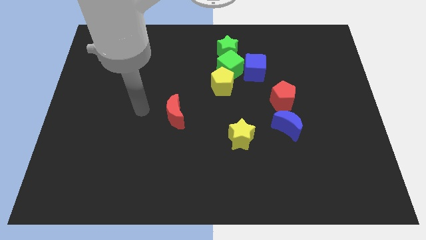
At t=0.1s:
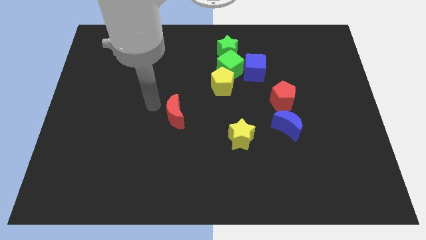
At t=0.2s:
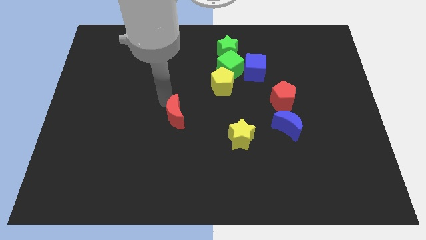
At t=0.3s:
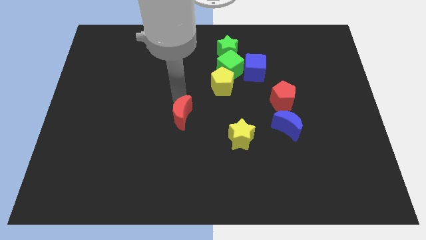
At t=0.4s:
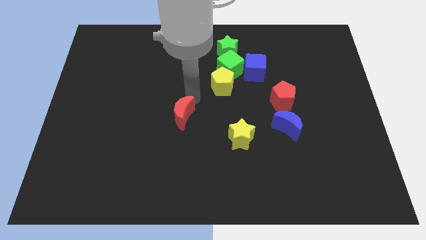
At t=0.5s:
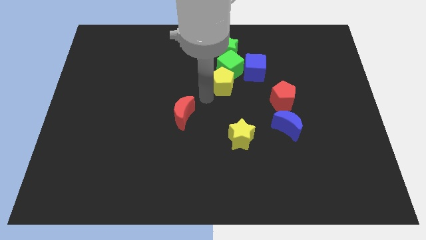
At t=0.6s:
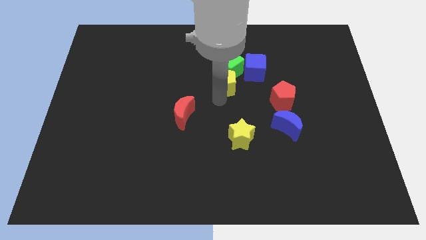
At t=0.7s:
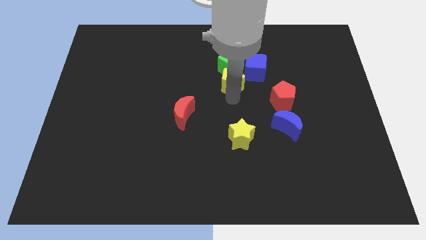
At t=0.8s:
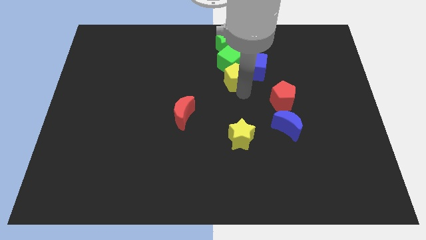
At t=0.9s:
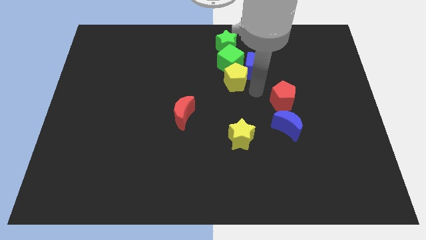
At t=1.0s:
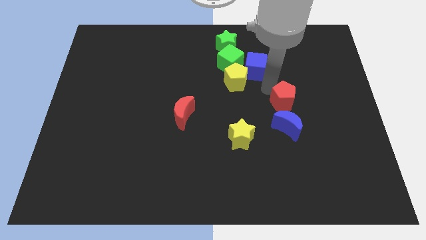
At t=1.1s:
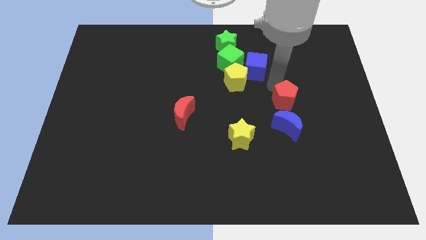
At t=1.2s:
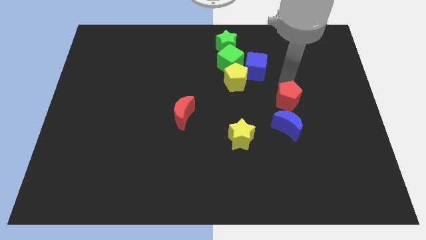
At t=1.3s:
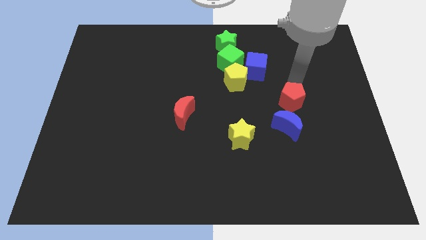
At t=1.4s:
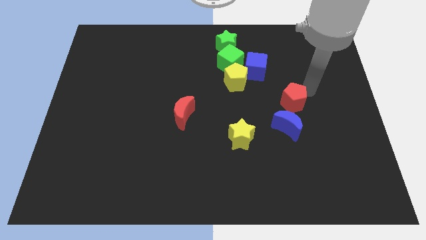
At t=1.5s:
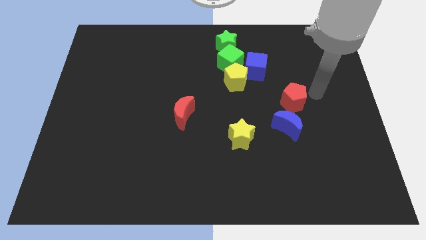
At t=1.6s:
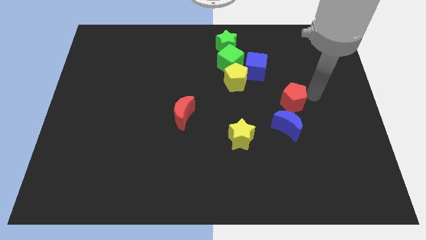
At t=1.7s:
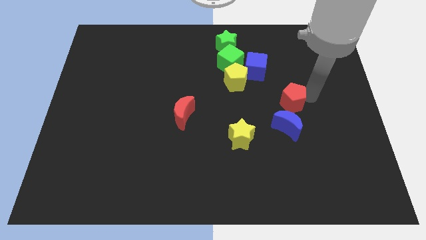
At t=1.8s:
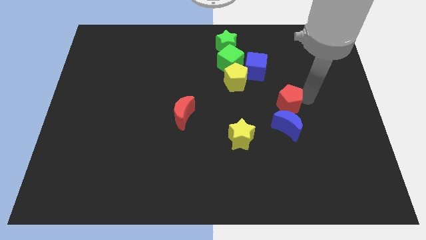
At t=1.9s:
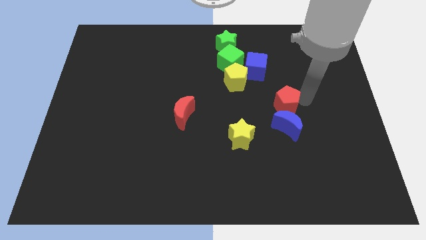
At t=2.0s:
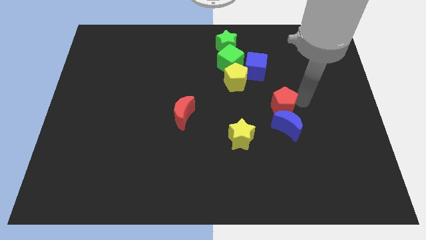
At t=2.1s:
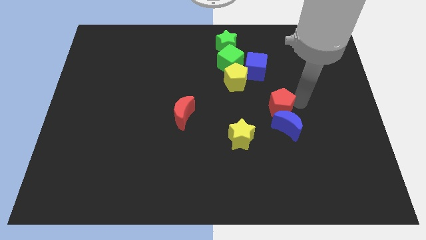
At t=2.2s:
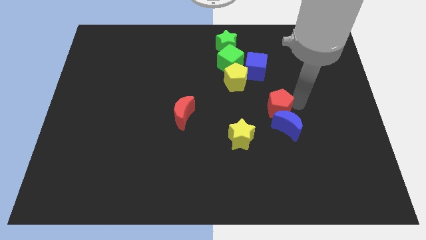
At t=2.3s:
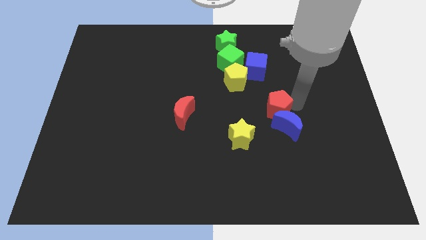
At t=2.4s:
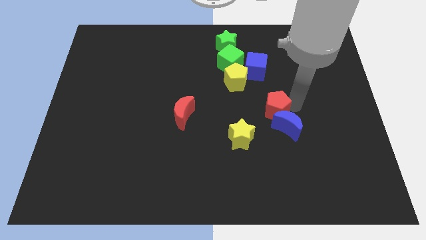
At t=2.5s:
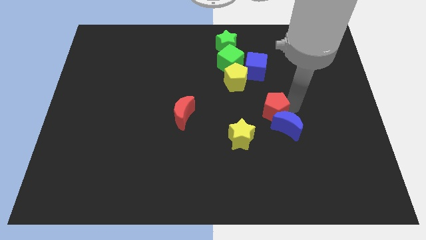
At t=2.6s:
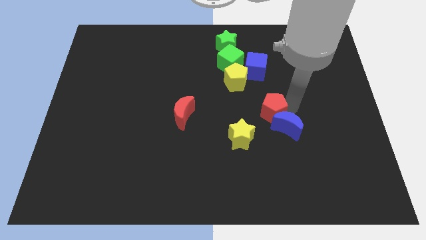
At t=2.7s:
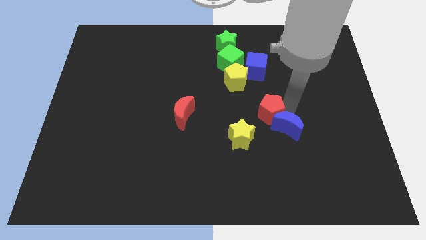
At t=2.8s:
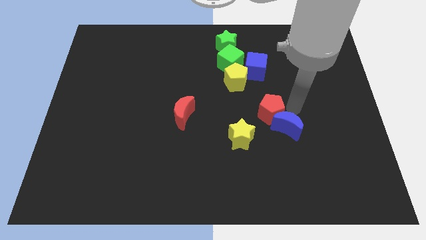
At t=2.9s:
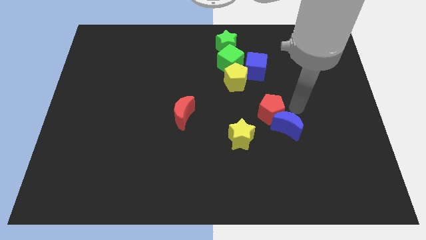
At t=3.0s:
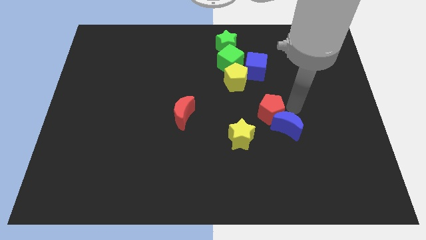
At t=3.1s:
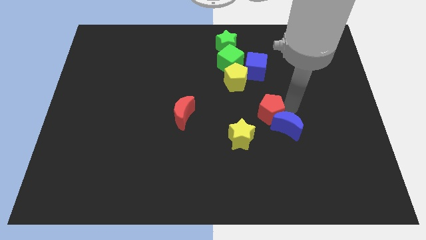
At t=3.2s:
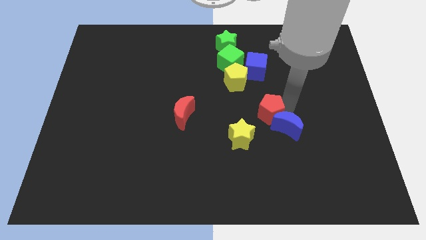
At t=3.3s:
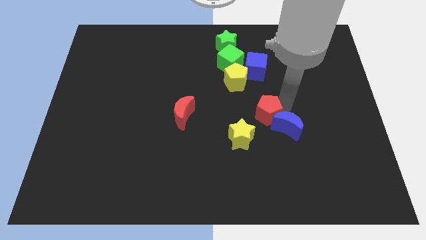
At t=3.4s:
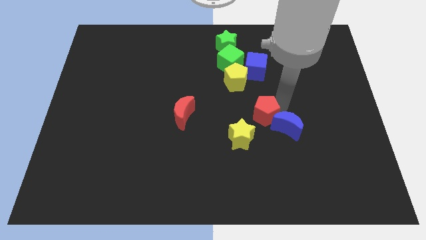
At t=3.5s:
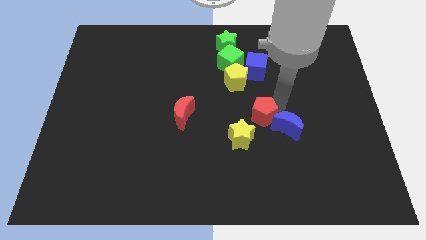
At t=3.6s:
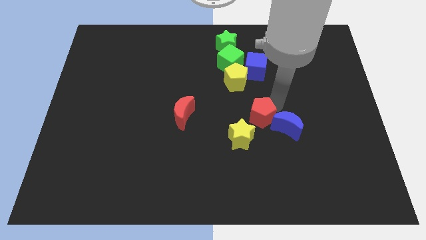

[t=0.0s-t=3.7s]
slightly push the red pentagon downwards and then left

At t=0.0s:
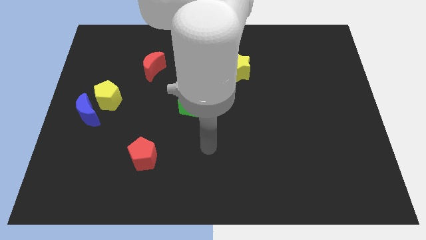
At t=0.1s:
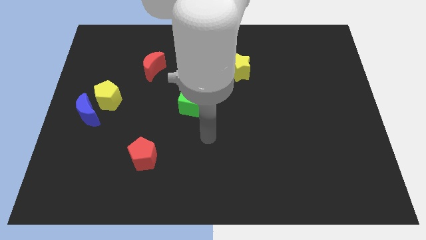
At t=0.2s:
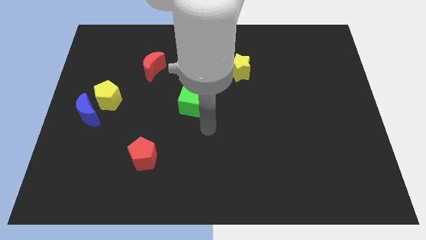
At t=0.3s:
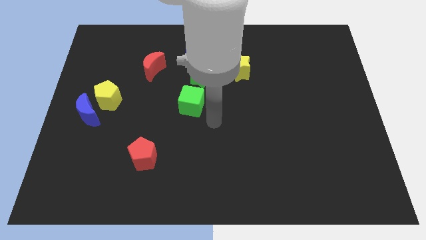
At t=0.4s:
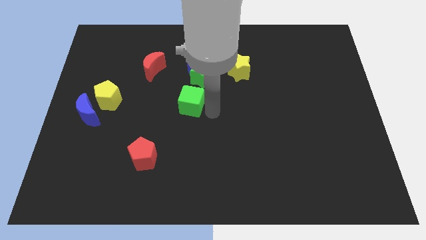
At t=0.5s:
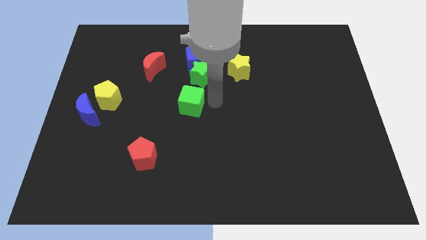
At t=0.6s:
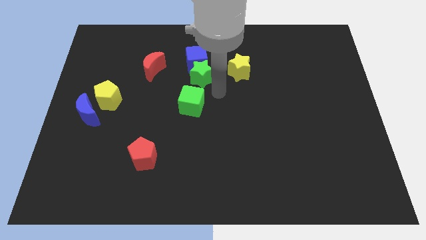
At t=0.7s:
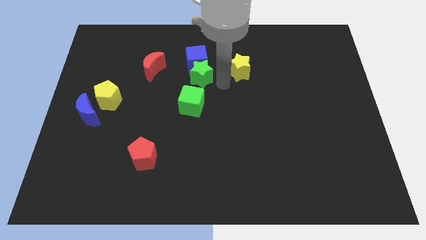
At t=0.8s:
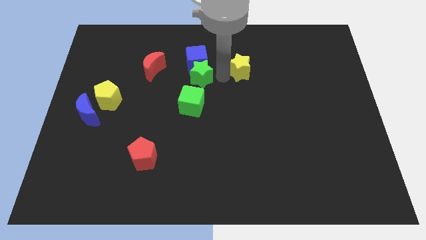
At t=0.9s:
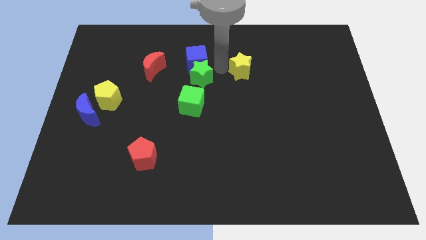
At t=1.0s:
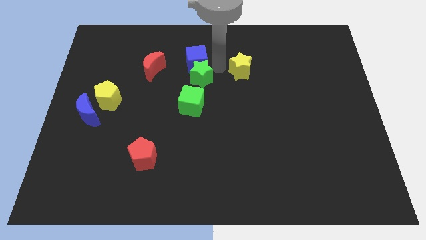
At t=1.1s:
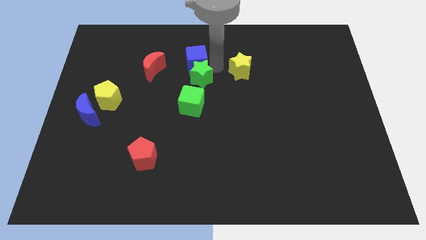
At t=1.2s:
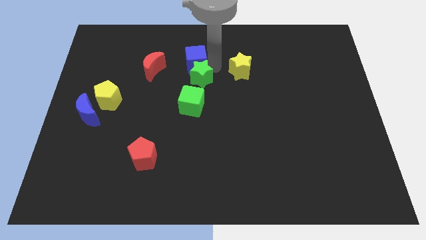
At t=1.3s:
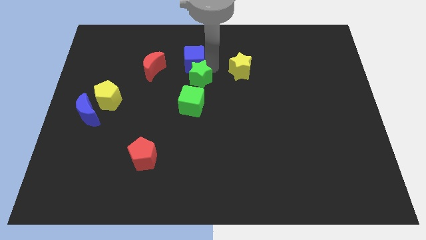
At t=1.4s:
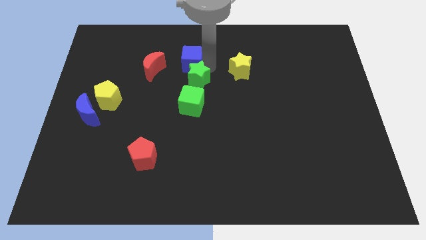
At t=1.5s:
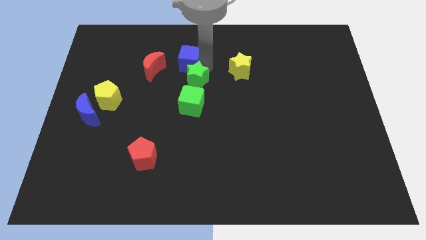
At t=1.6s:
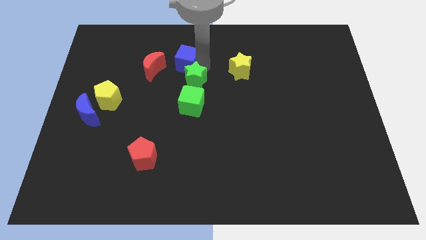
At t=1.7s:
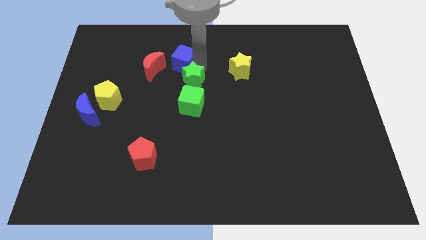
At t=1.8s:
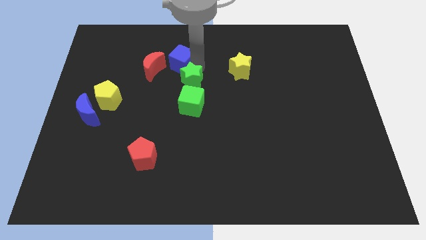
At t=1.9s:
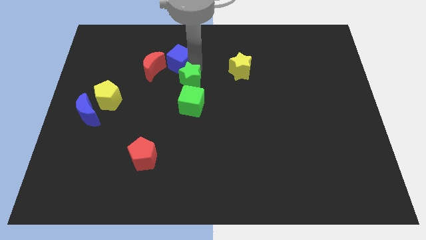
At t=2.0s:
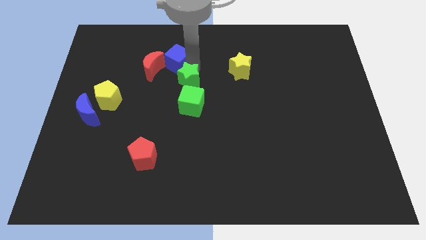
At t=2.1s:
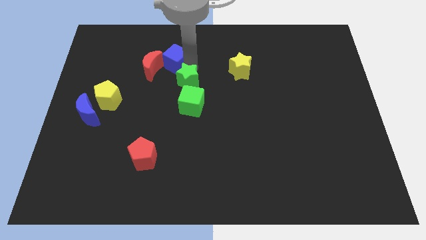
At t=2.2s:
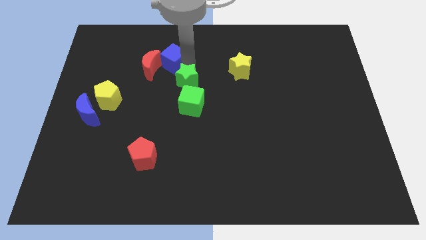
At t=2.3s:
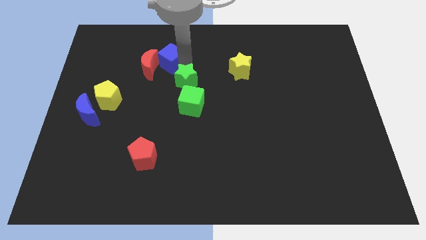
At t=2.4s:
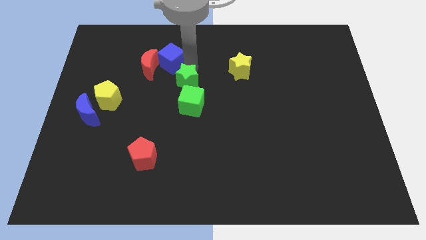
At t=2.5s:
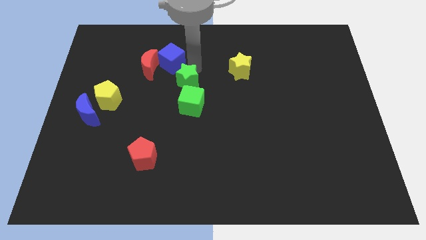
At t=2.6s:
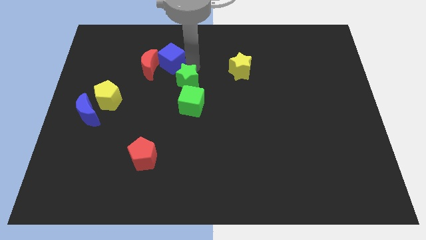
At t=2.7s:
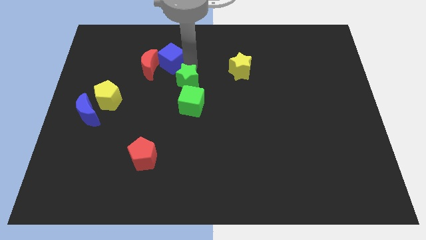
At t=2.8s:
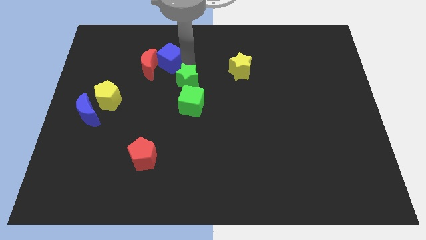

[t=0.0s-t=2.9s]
move the blue cube left a little bit

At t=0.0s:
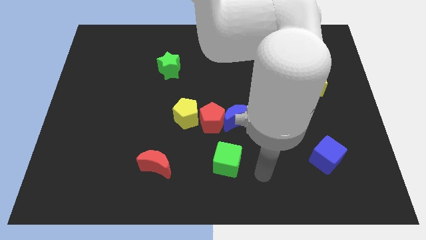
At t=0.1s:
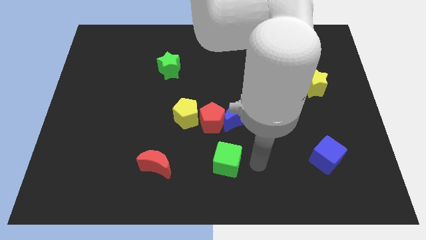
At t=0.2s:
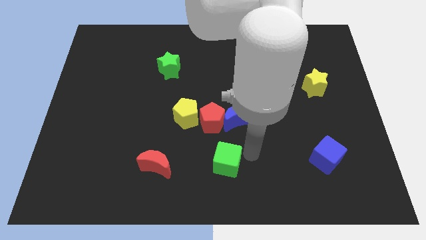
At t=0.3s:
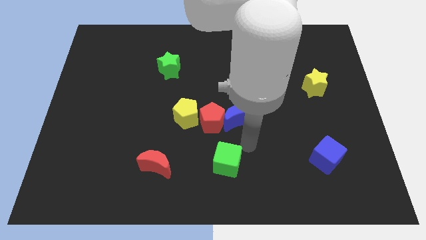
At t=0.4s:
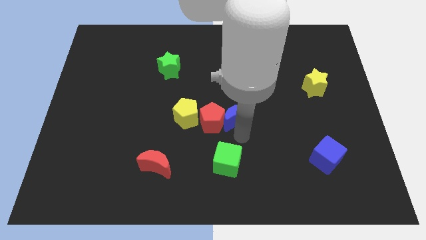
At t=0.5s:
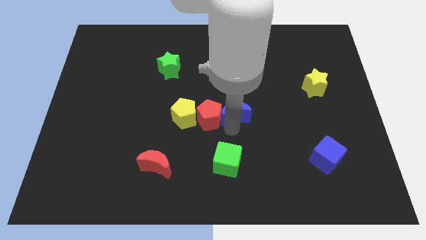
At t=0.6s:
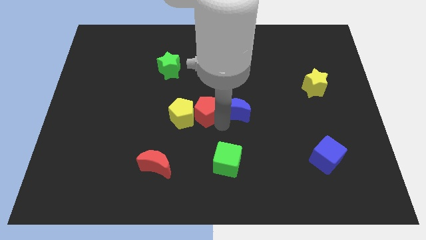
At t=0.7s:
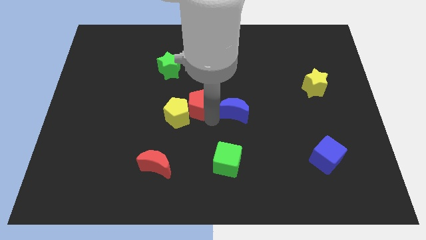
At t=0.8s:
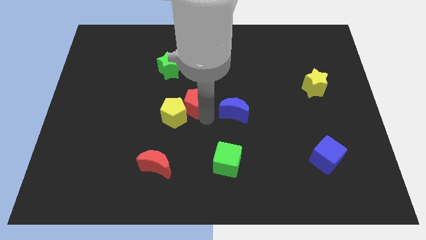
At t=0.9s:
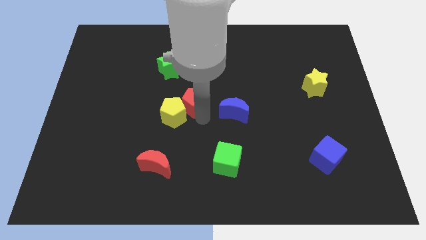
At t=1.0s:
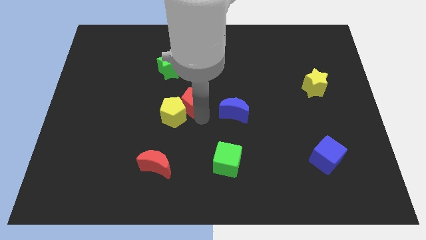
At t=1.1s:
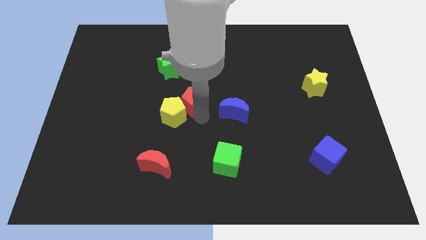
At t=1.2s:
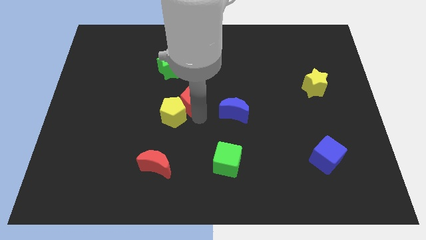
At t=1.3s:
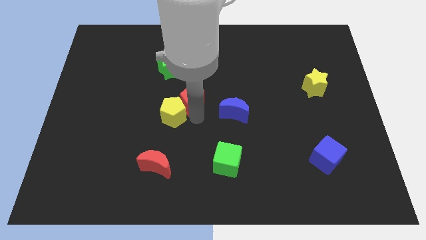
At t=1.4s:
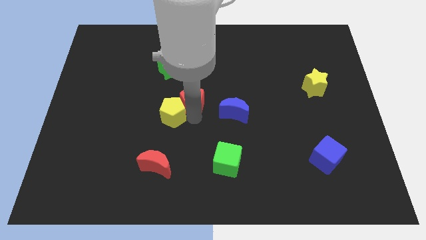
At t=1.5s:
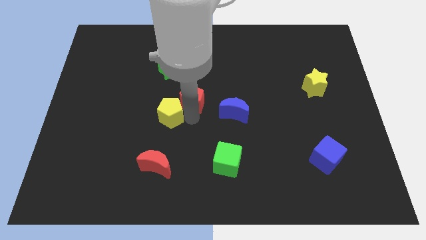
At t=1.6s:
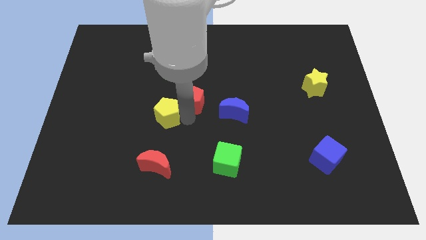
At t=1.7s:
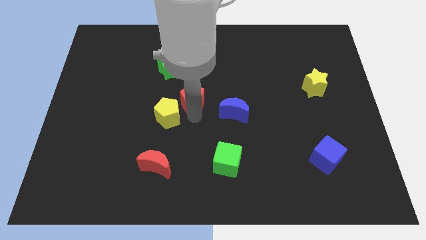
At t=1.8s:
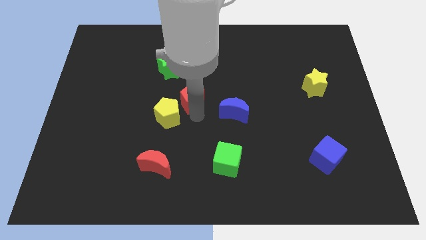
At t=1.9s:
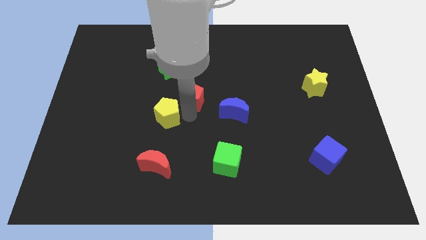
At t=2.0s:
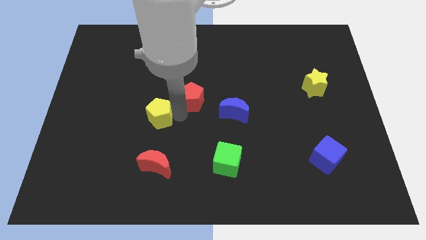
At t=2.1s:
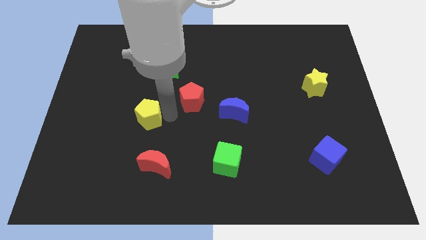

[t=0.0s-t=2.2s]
slide the yellow pentagon to the left a little
